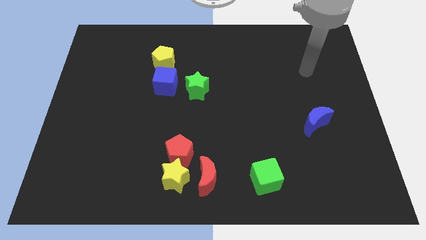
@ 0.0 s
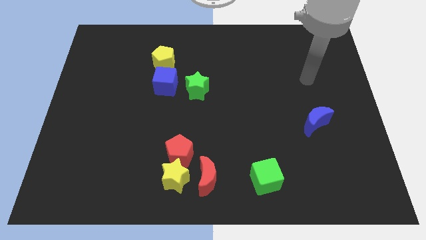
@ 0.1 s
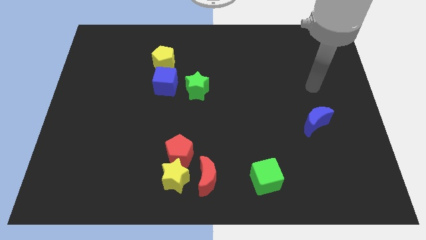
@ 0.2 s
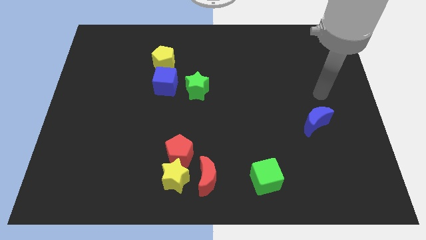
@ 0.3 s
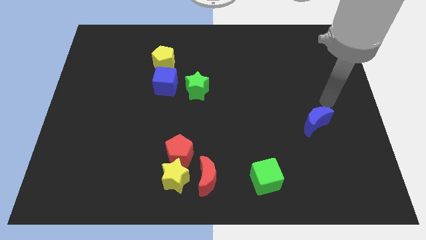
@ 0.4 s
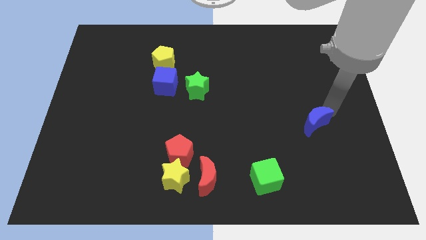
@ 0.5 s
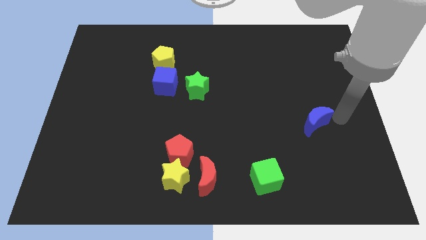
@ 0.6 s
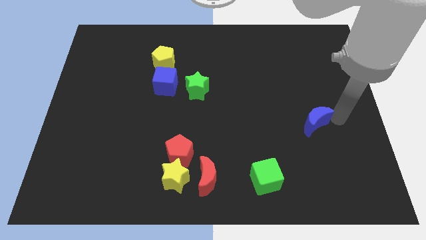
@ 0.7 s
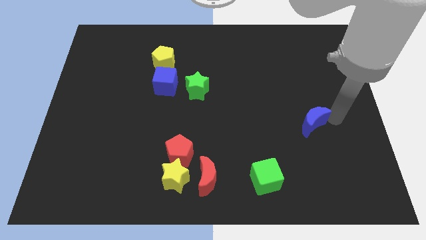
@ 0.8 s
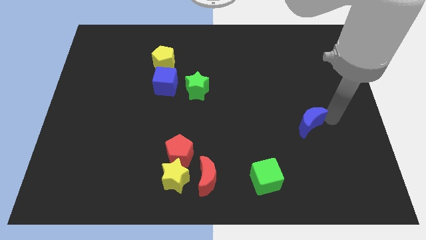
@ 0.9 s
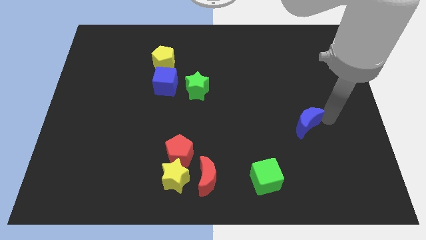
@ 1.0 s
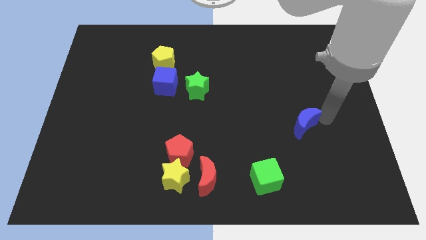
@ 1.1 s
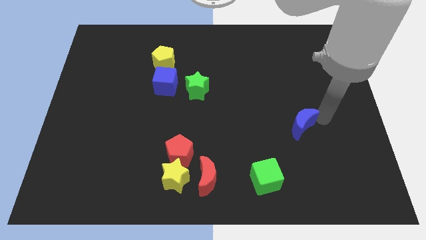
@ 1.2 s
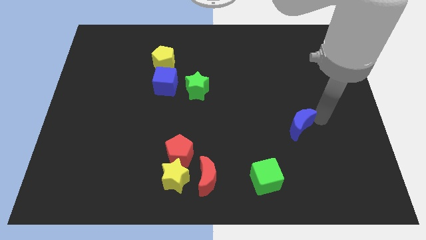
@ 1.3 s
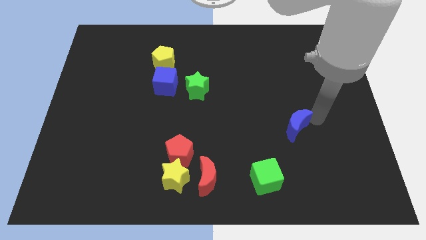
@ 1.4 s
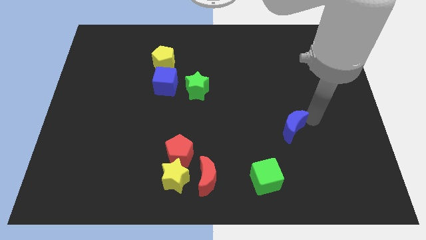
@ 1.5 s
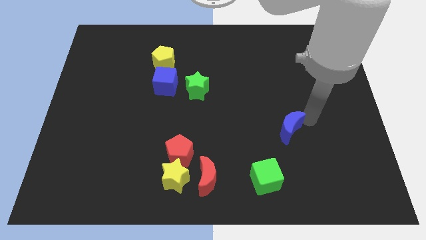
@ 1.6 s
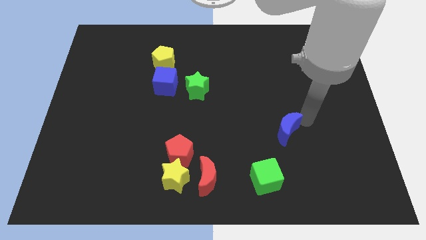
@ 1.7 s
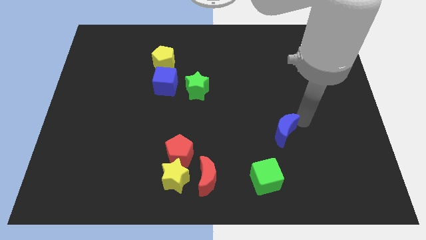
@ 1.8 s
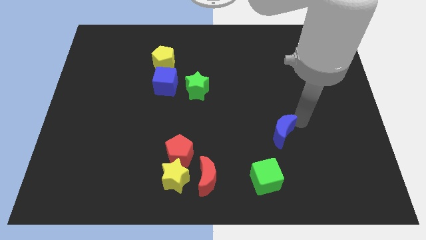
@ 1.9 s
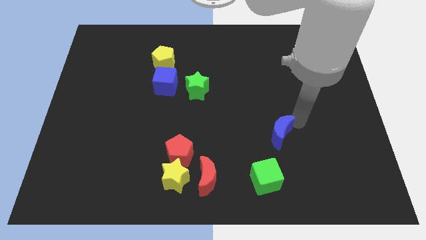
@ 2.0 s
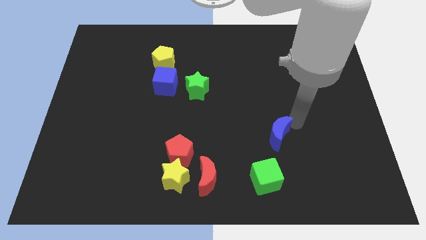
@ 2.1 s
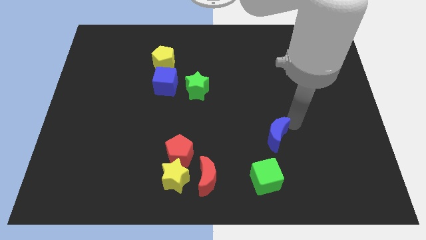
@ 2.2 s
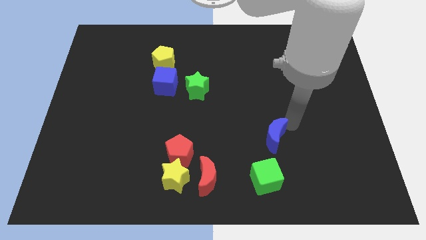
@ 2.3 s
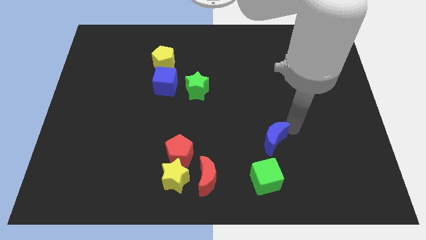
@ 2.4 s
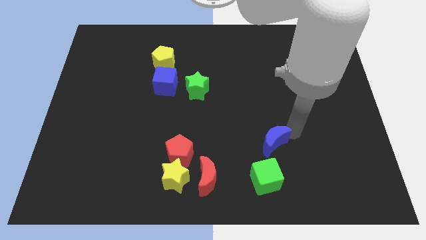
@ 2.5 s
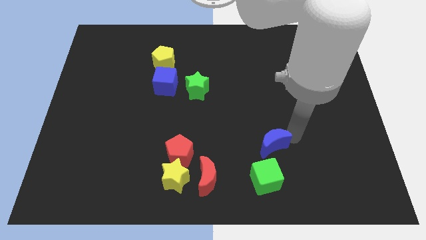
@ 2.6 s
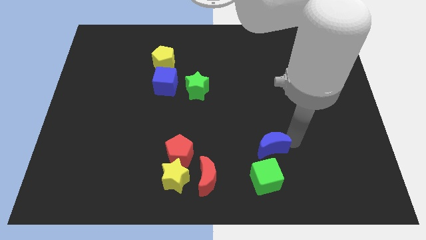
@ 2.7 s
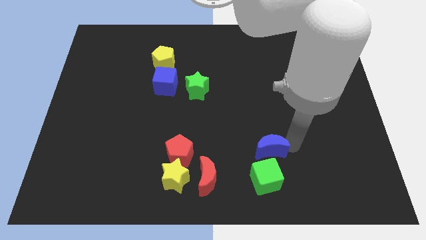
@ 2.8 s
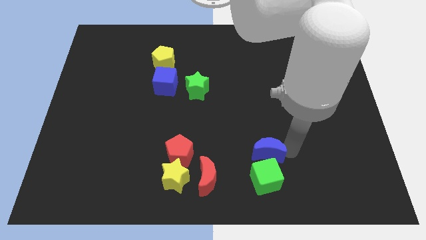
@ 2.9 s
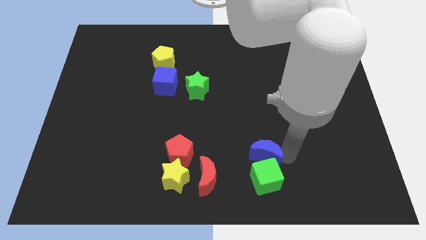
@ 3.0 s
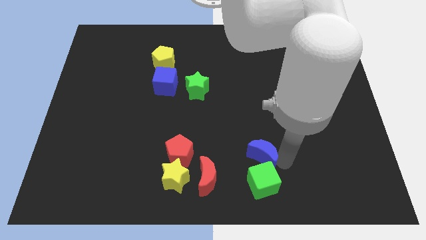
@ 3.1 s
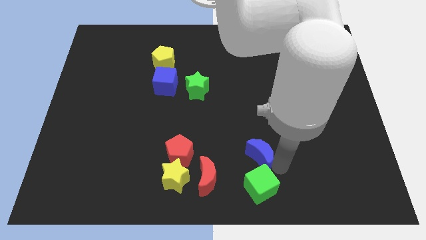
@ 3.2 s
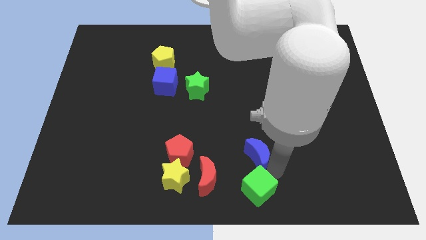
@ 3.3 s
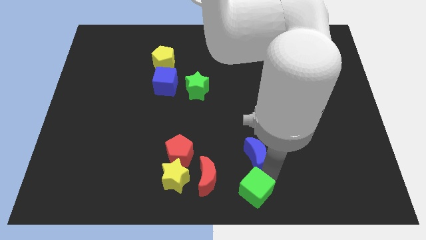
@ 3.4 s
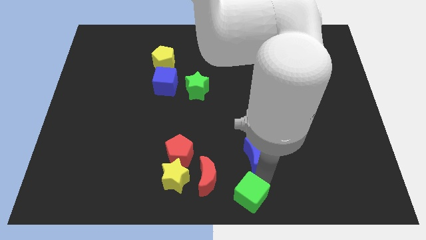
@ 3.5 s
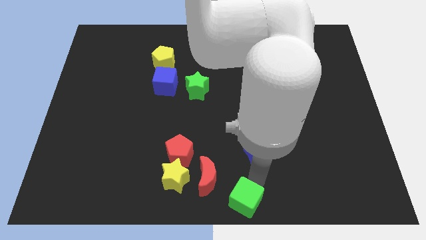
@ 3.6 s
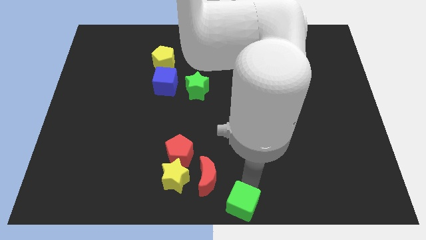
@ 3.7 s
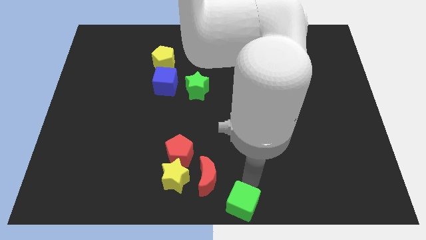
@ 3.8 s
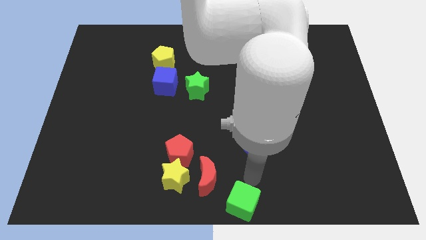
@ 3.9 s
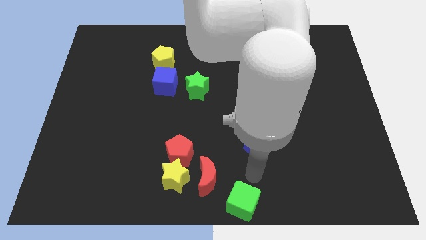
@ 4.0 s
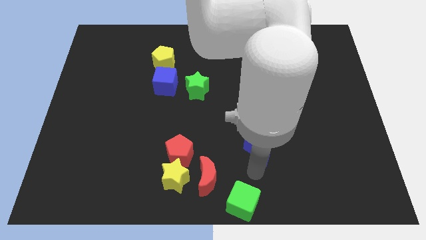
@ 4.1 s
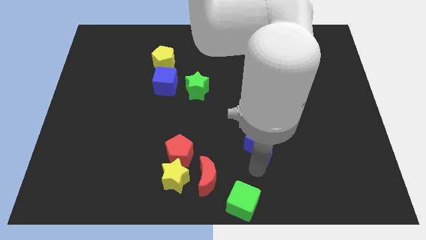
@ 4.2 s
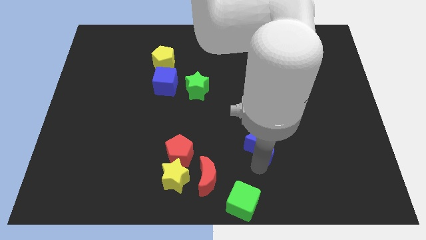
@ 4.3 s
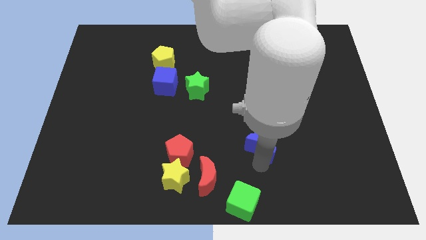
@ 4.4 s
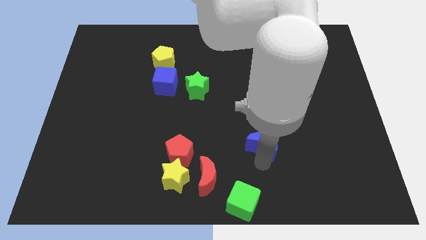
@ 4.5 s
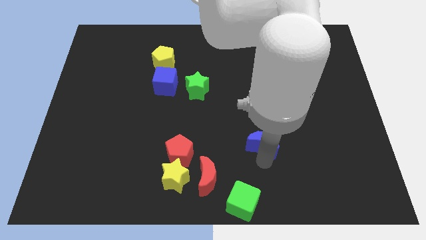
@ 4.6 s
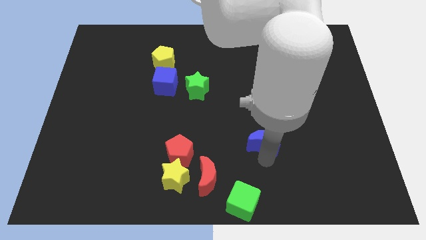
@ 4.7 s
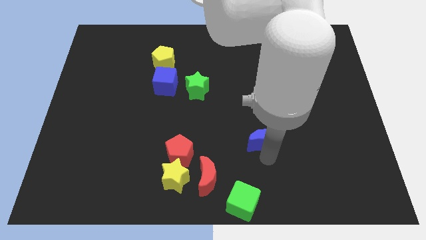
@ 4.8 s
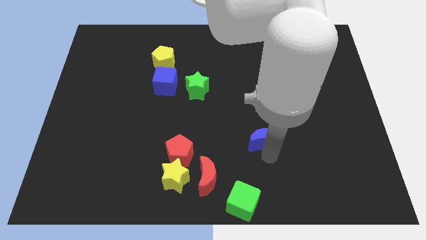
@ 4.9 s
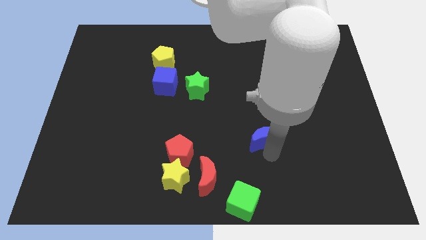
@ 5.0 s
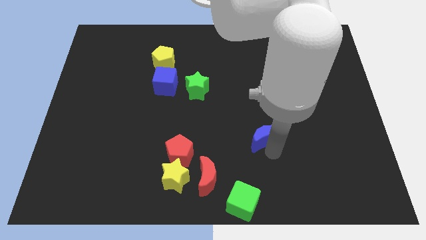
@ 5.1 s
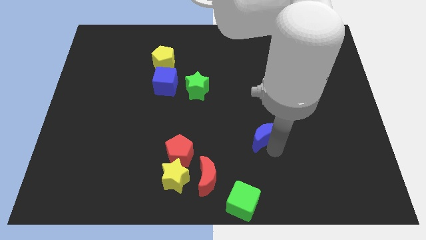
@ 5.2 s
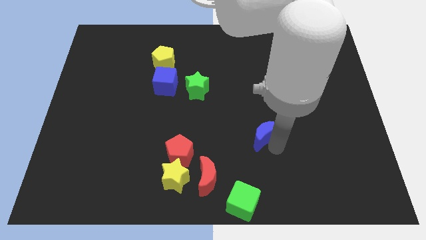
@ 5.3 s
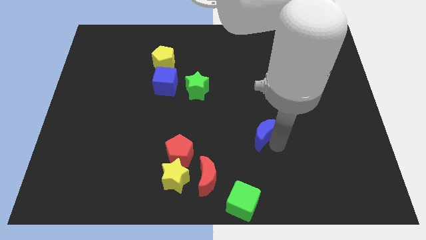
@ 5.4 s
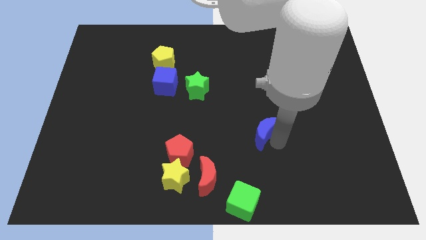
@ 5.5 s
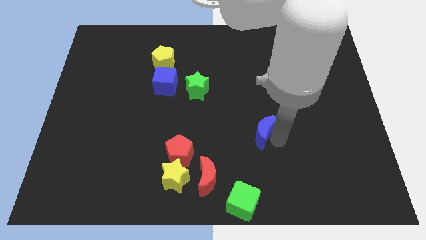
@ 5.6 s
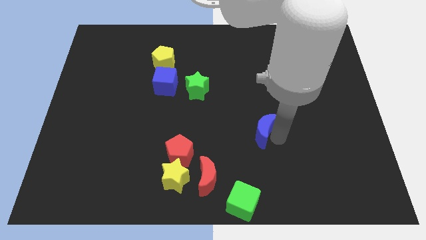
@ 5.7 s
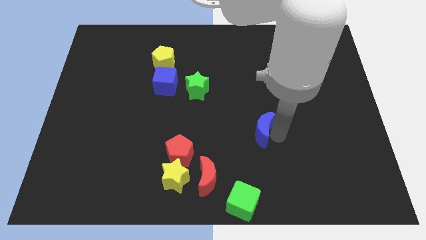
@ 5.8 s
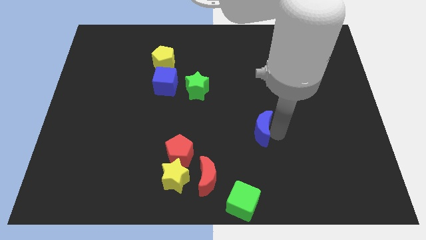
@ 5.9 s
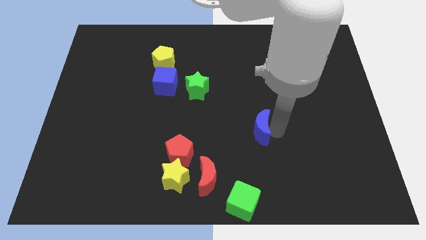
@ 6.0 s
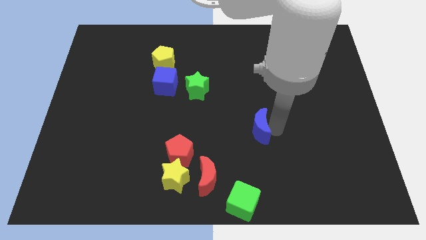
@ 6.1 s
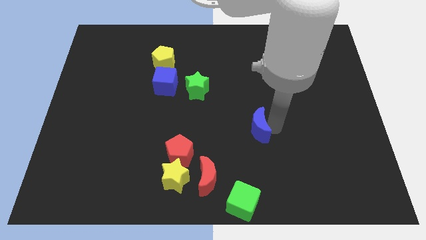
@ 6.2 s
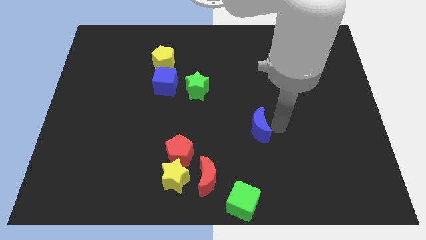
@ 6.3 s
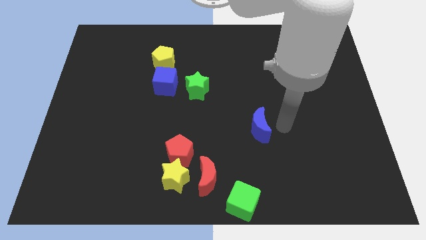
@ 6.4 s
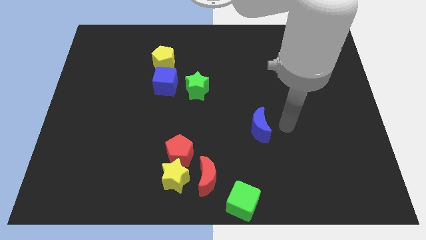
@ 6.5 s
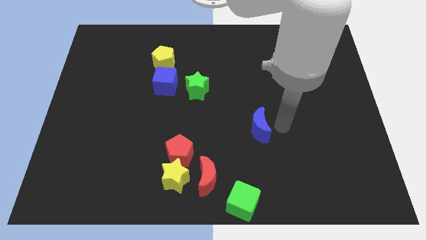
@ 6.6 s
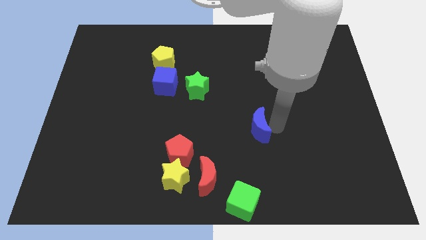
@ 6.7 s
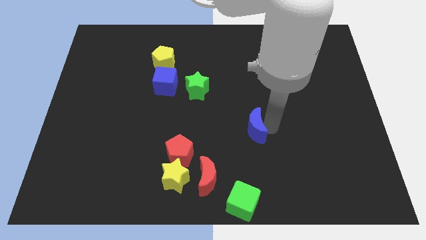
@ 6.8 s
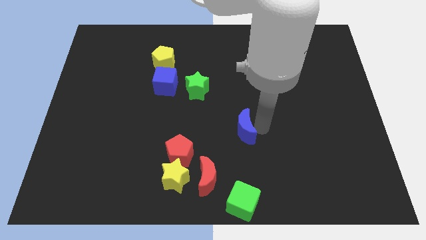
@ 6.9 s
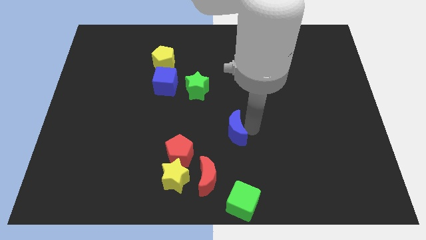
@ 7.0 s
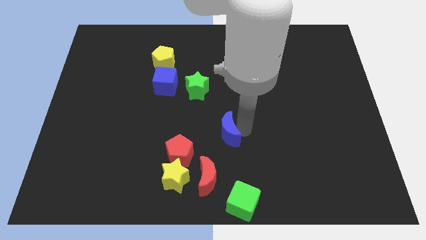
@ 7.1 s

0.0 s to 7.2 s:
put the blue moon above the red moon

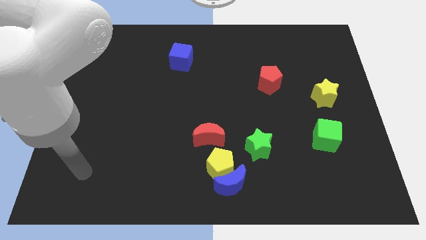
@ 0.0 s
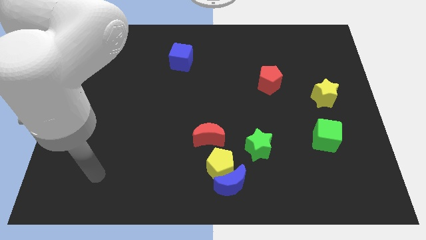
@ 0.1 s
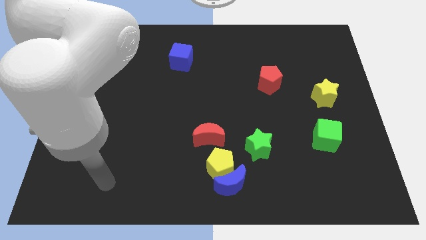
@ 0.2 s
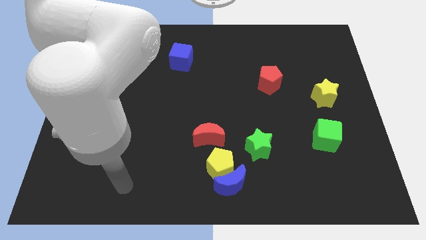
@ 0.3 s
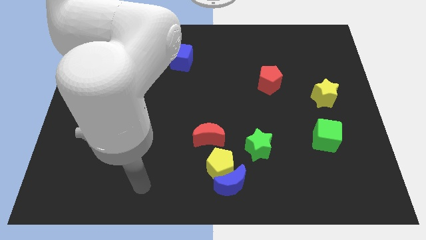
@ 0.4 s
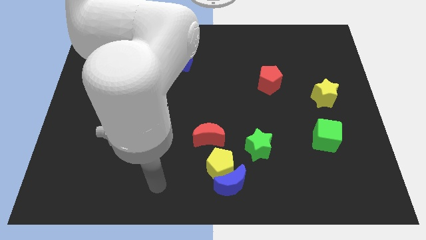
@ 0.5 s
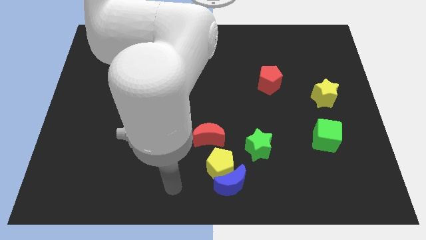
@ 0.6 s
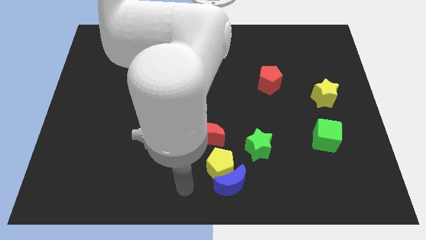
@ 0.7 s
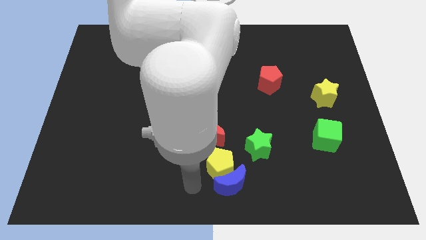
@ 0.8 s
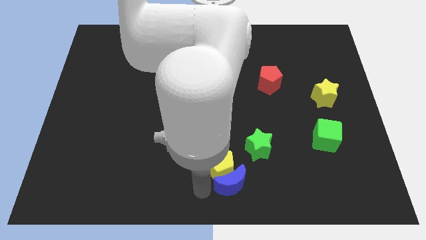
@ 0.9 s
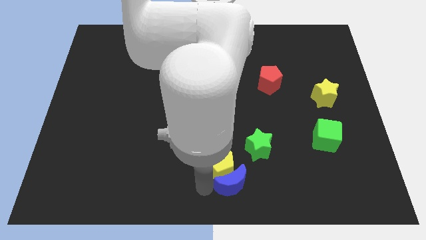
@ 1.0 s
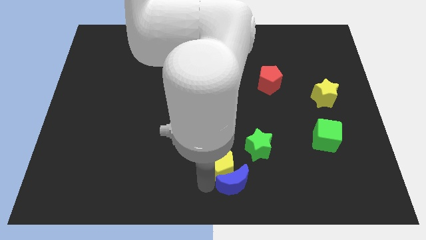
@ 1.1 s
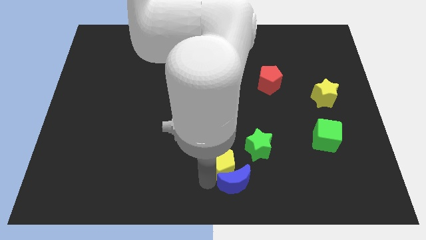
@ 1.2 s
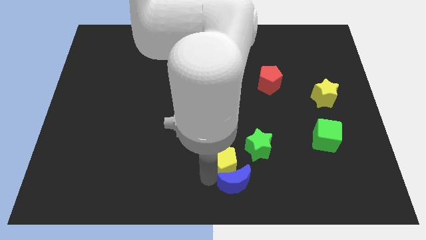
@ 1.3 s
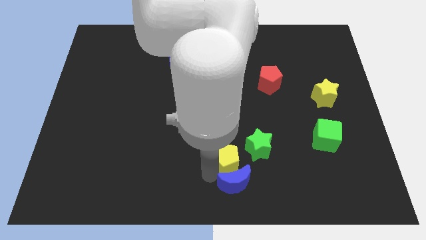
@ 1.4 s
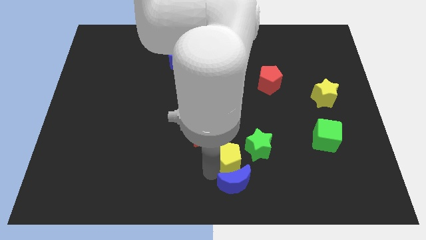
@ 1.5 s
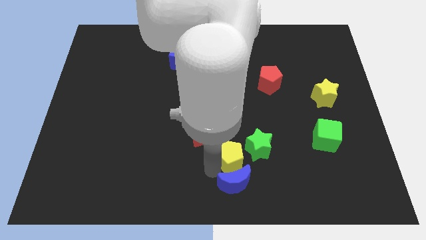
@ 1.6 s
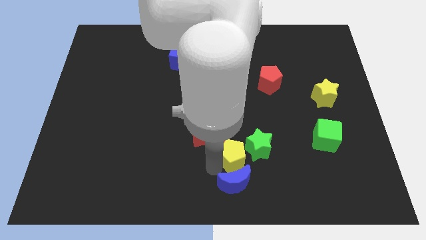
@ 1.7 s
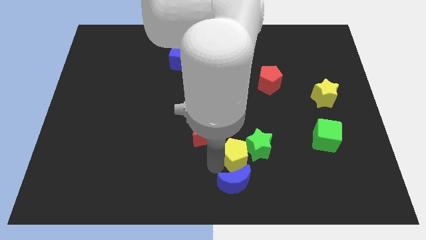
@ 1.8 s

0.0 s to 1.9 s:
slide the yellow pentagon just right of the red moon
